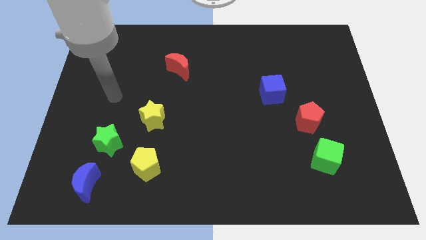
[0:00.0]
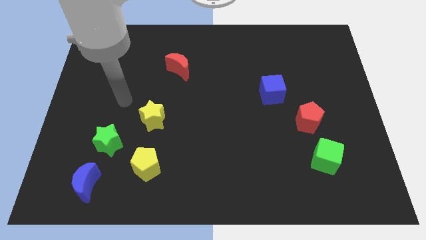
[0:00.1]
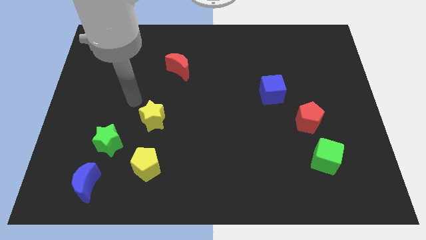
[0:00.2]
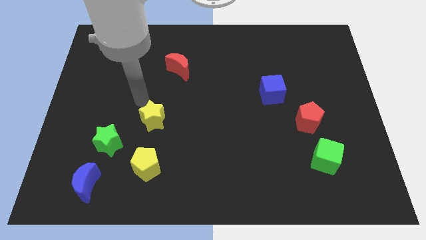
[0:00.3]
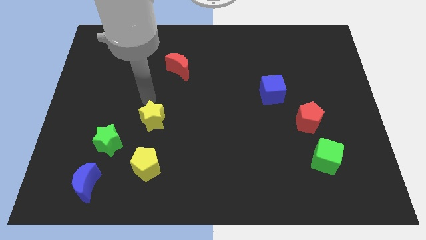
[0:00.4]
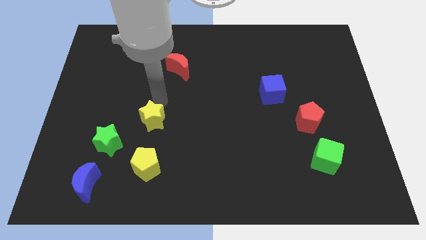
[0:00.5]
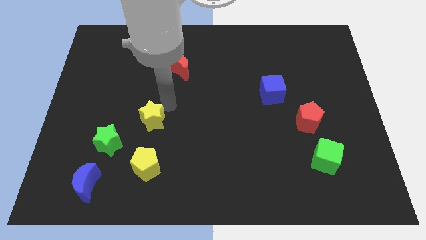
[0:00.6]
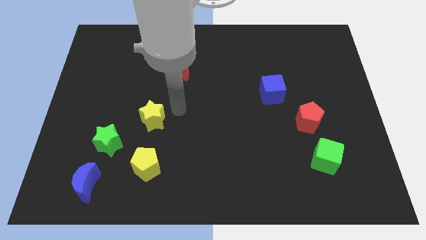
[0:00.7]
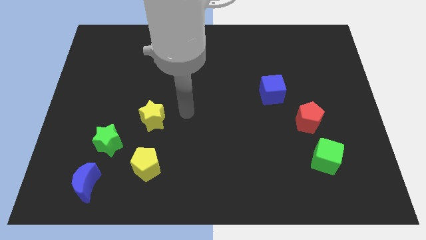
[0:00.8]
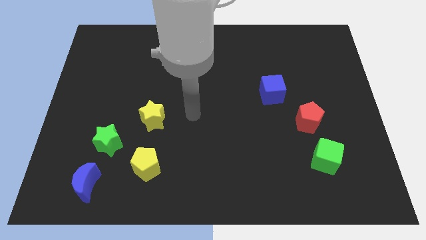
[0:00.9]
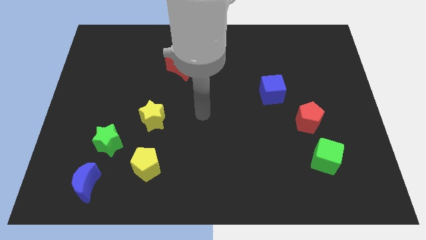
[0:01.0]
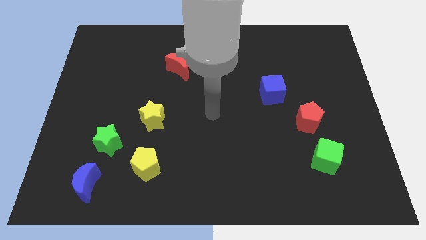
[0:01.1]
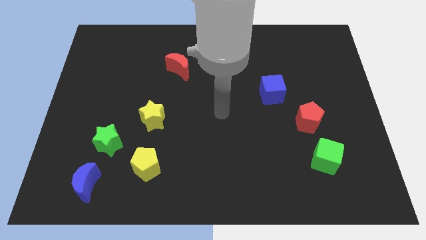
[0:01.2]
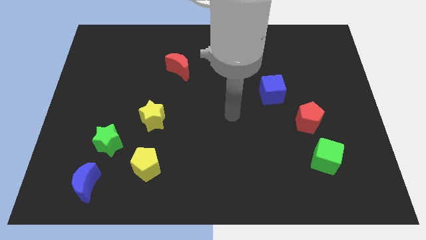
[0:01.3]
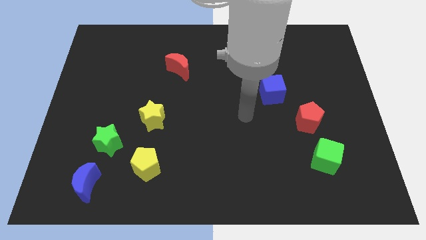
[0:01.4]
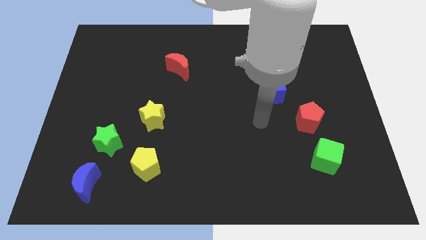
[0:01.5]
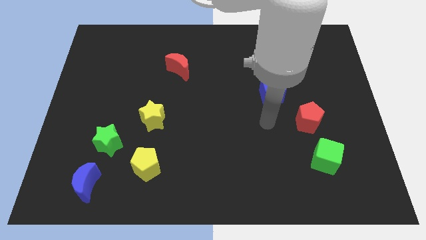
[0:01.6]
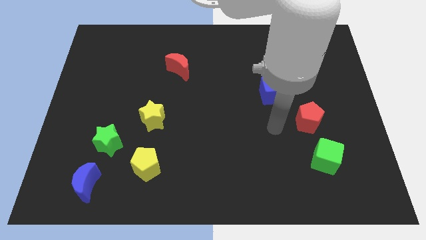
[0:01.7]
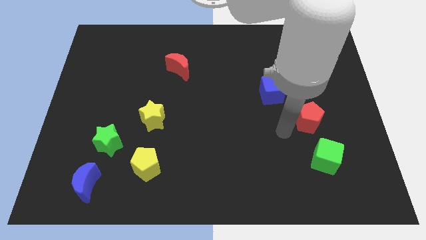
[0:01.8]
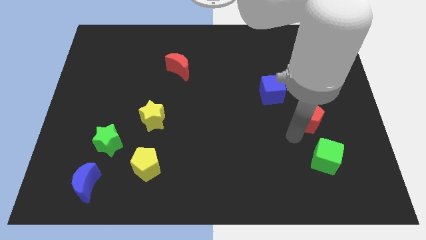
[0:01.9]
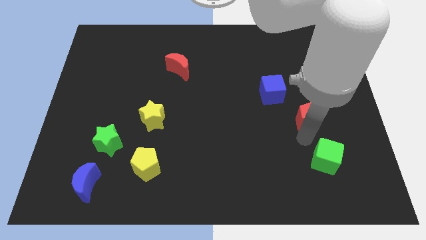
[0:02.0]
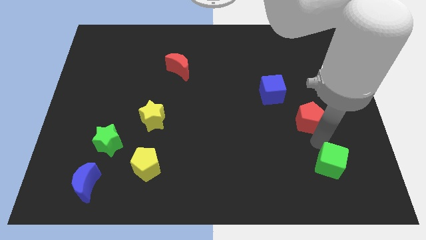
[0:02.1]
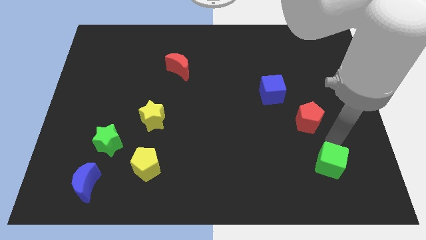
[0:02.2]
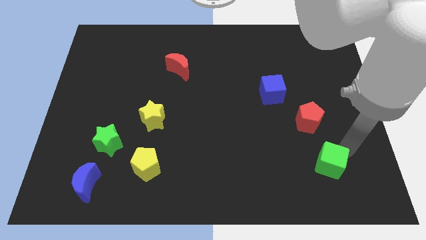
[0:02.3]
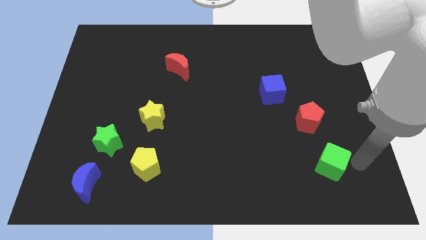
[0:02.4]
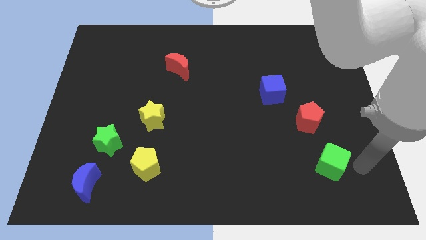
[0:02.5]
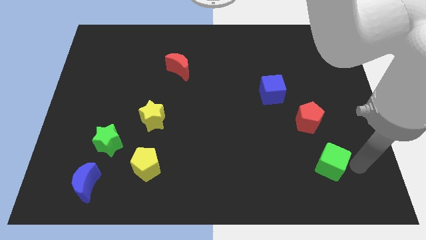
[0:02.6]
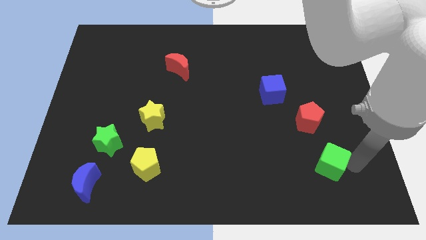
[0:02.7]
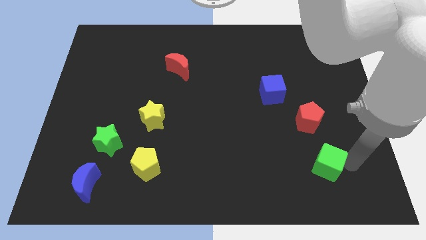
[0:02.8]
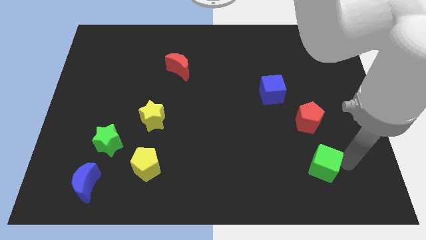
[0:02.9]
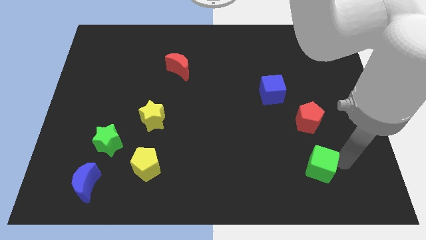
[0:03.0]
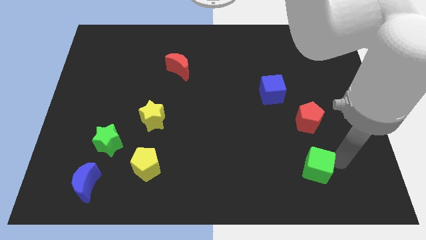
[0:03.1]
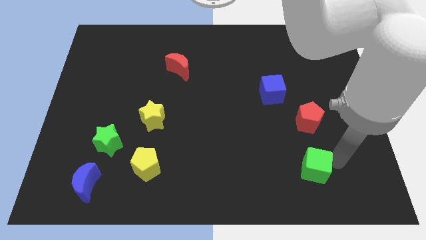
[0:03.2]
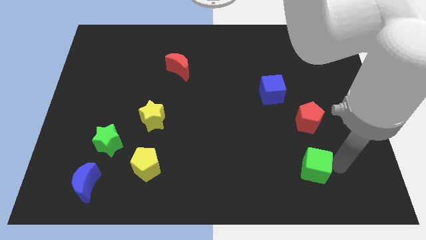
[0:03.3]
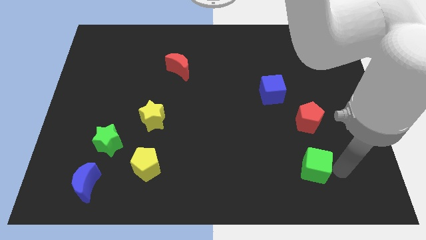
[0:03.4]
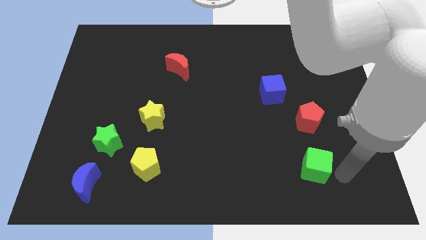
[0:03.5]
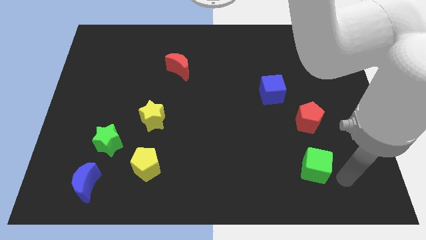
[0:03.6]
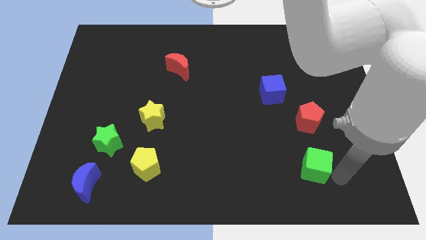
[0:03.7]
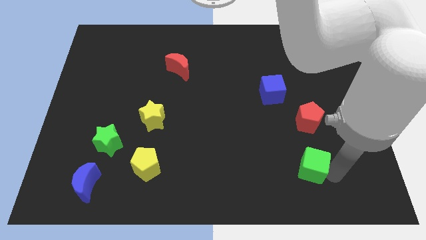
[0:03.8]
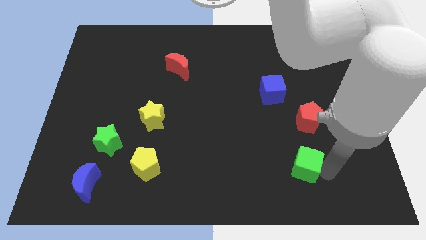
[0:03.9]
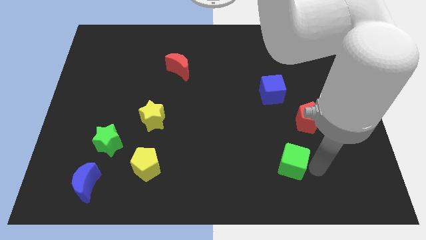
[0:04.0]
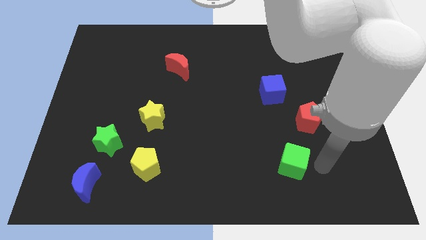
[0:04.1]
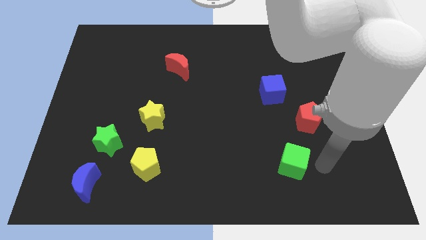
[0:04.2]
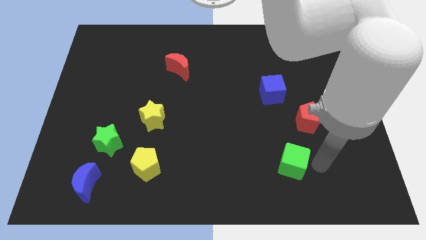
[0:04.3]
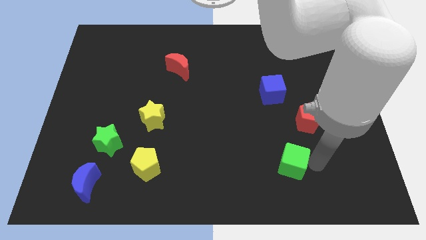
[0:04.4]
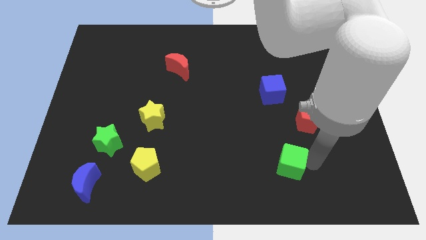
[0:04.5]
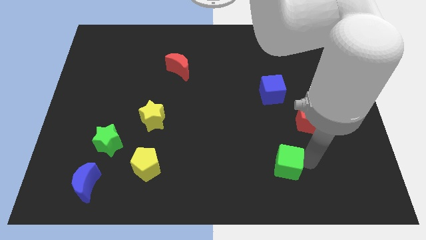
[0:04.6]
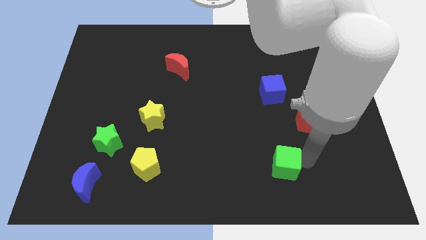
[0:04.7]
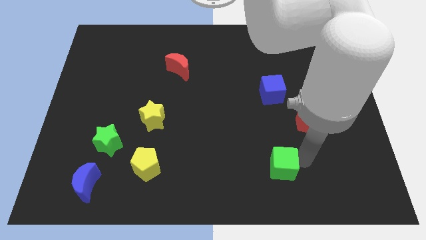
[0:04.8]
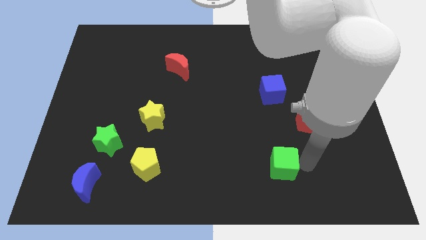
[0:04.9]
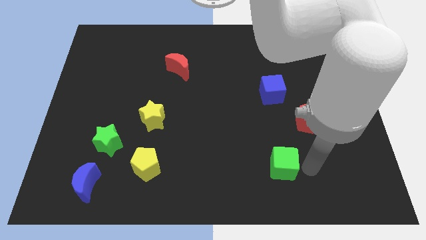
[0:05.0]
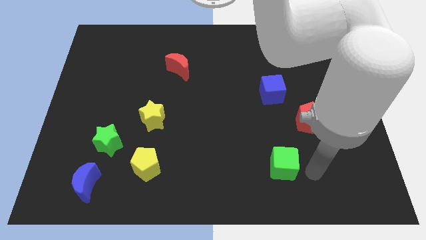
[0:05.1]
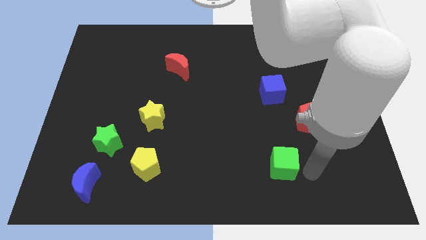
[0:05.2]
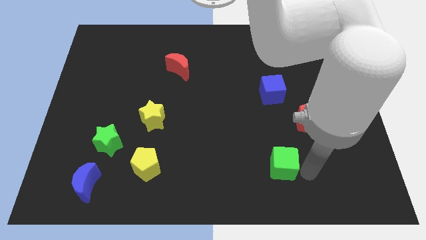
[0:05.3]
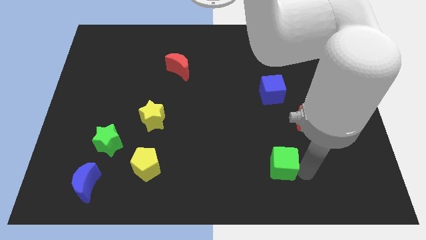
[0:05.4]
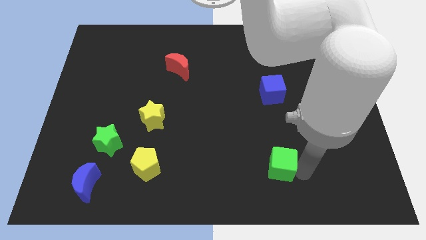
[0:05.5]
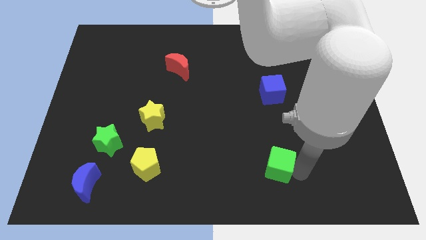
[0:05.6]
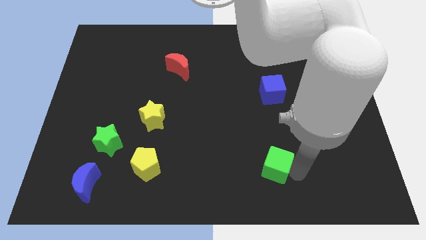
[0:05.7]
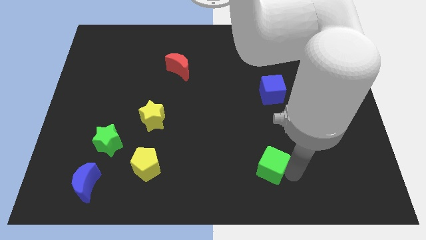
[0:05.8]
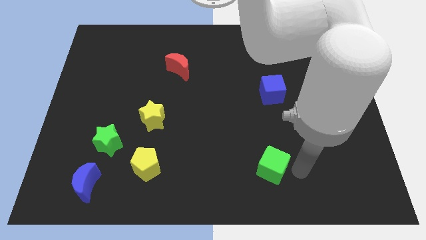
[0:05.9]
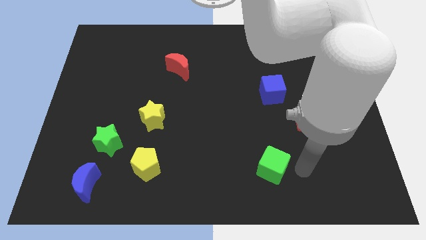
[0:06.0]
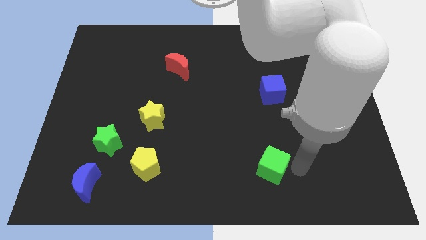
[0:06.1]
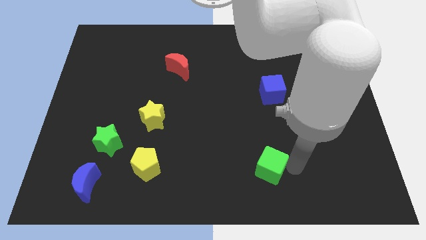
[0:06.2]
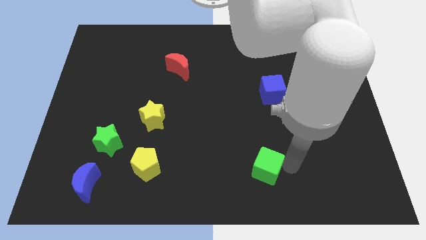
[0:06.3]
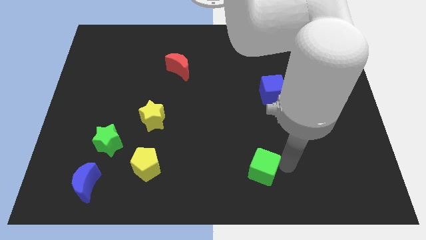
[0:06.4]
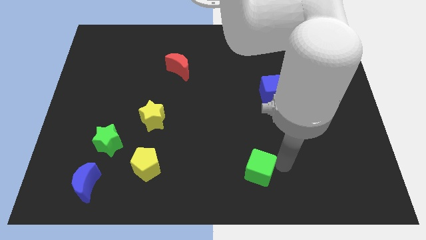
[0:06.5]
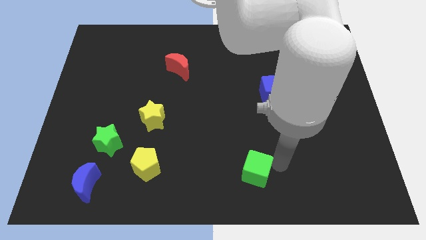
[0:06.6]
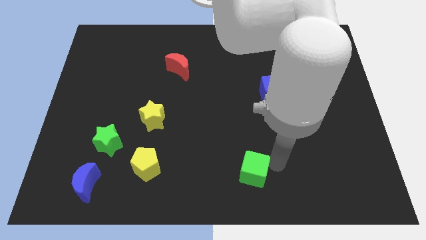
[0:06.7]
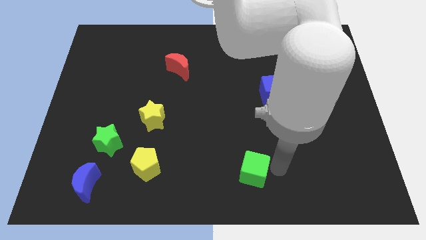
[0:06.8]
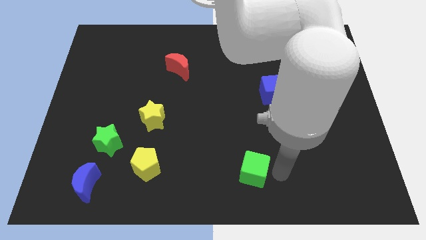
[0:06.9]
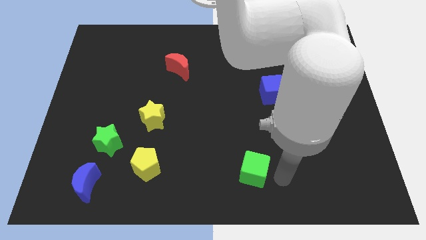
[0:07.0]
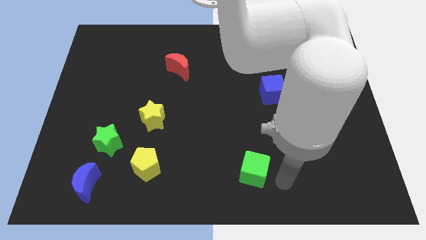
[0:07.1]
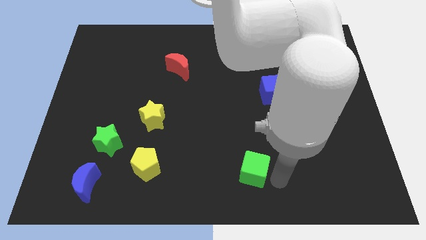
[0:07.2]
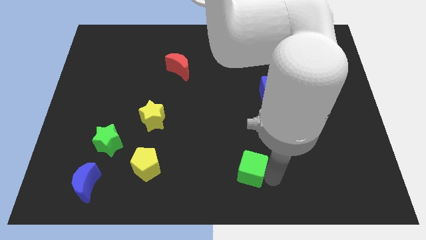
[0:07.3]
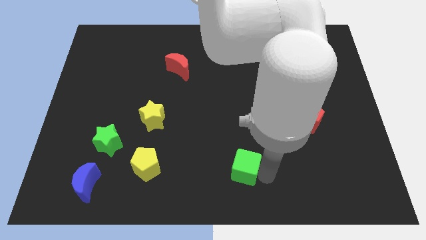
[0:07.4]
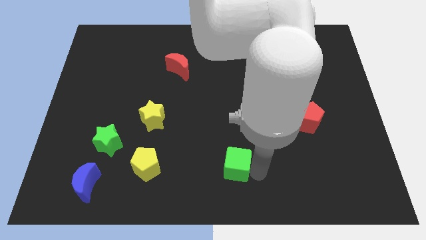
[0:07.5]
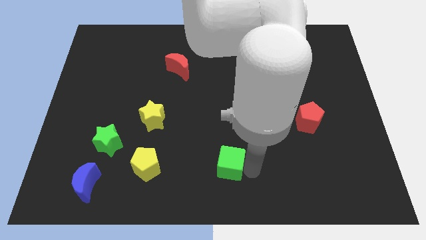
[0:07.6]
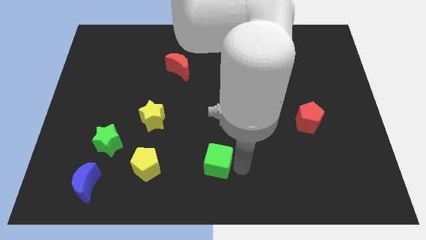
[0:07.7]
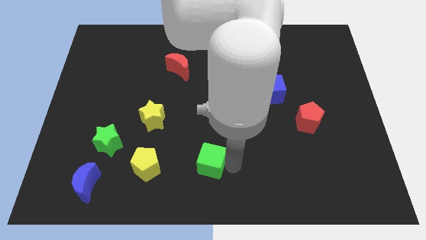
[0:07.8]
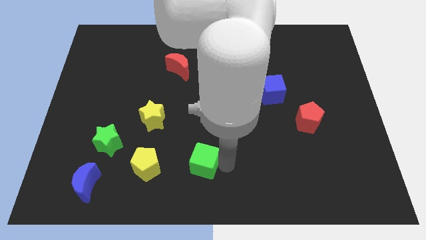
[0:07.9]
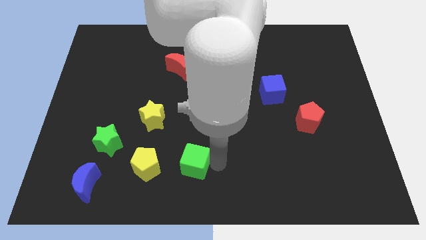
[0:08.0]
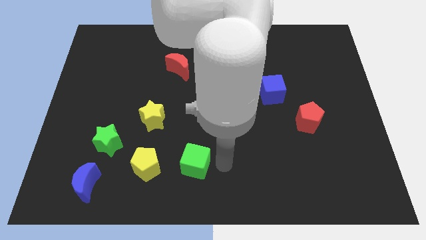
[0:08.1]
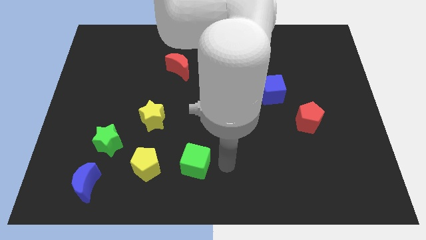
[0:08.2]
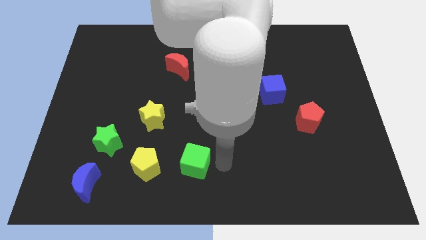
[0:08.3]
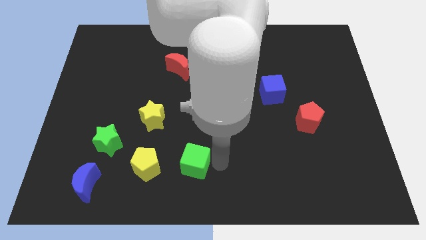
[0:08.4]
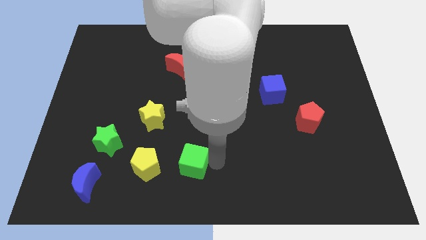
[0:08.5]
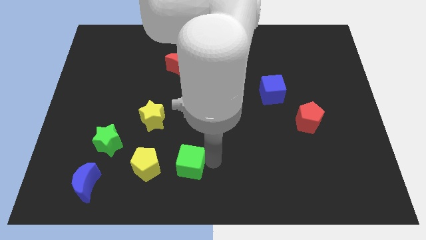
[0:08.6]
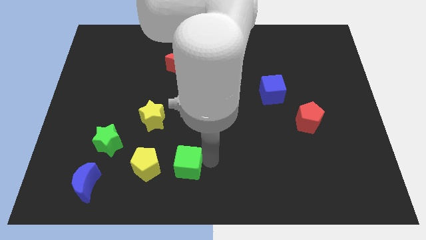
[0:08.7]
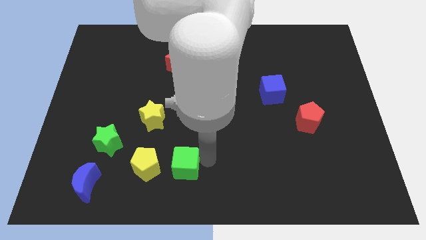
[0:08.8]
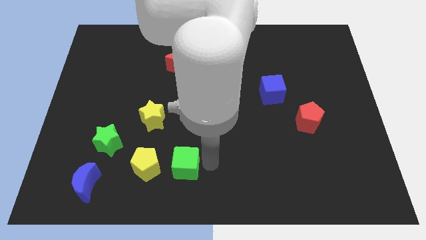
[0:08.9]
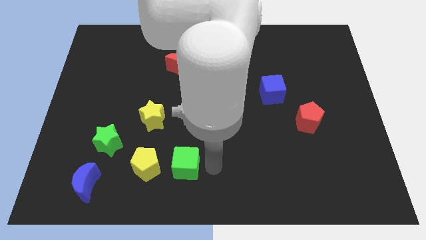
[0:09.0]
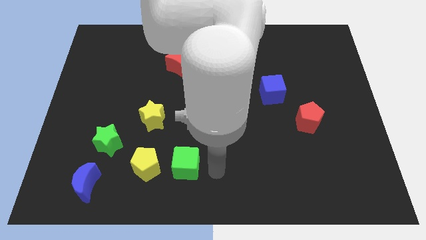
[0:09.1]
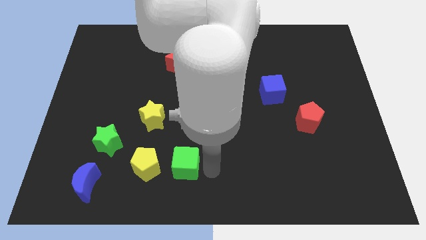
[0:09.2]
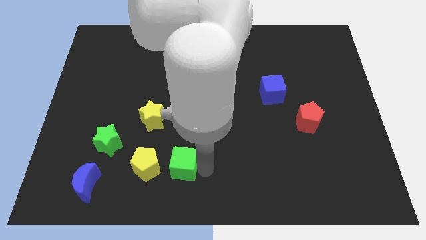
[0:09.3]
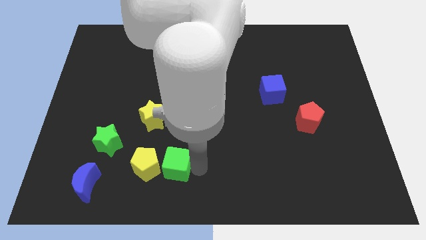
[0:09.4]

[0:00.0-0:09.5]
slide the green cube to the yellow pentagon
